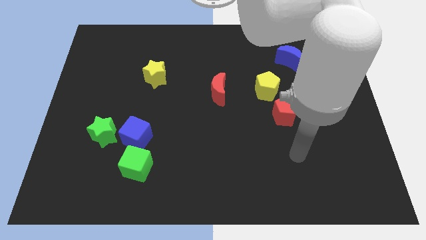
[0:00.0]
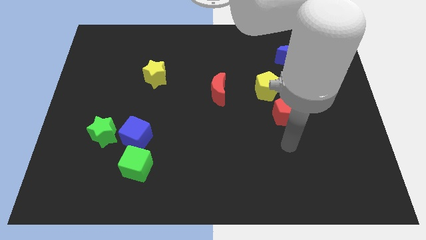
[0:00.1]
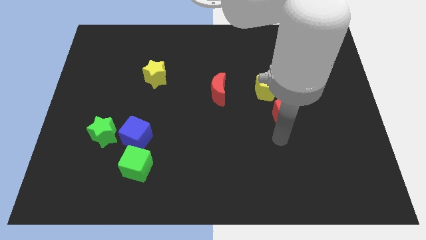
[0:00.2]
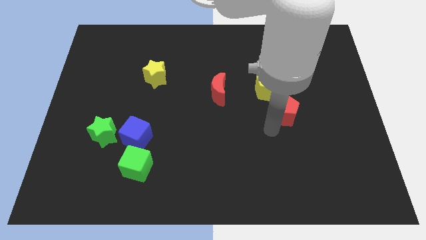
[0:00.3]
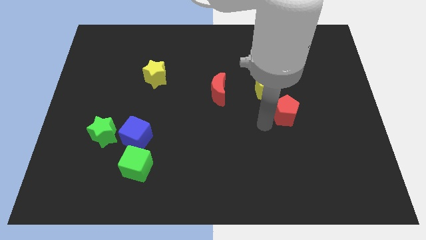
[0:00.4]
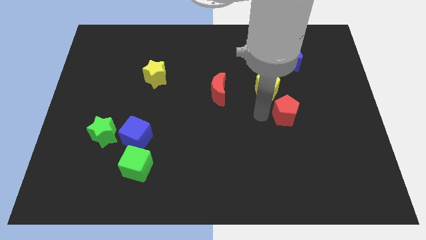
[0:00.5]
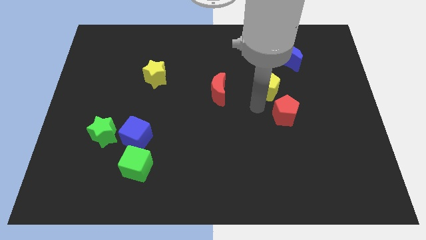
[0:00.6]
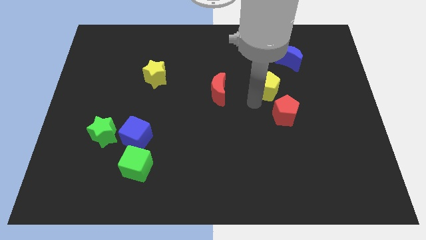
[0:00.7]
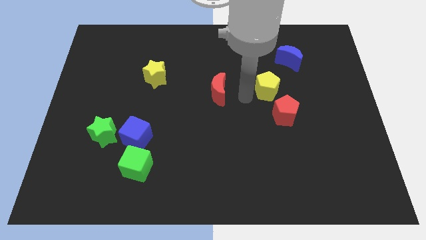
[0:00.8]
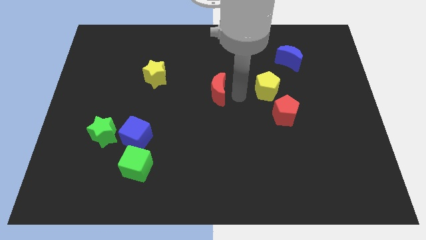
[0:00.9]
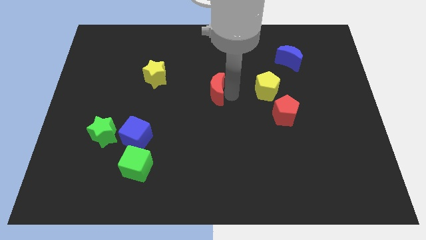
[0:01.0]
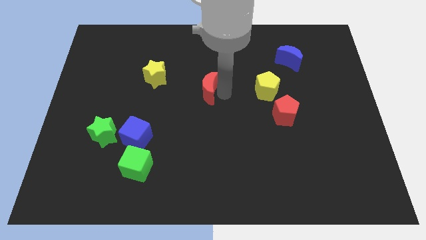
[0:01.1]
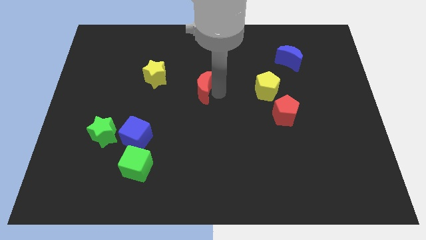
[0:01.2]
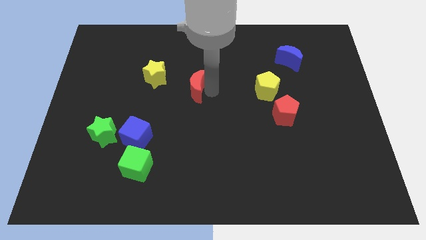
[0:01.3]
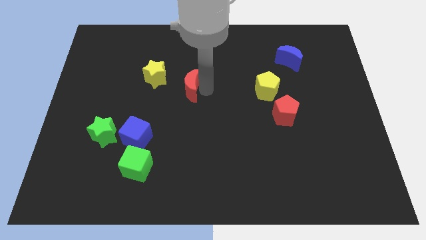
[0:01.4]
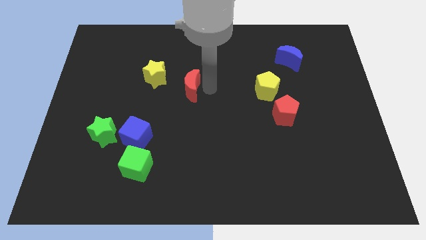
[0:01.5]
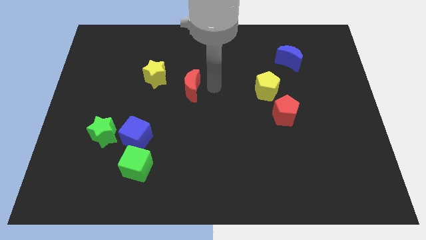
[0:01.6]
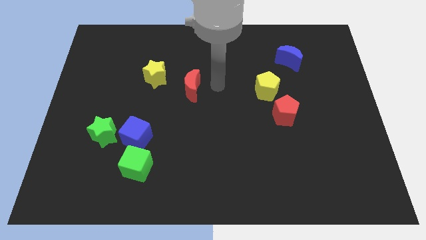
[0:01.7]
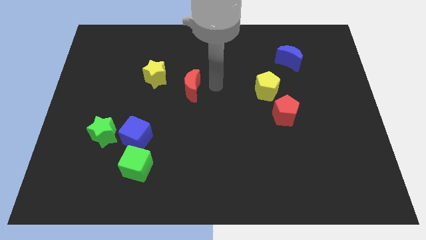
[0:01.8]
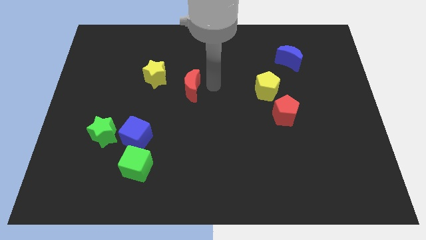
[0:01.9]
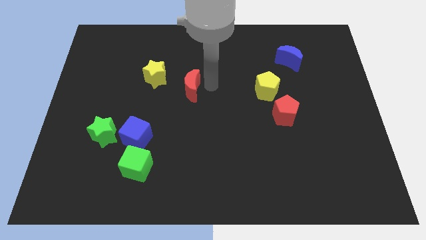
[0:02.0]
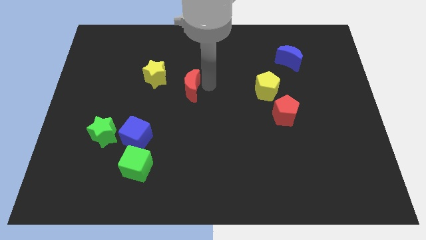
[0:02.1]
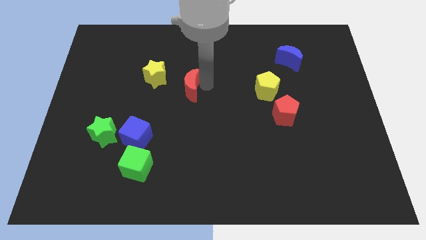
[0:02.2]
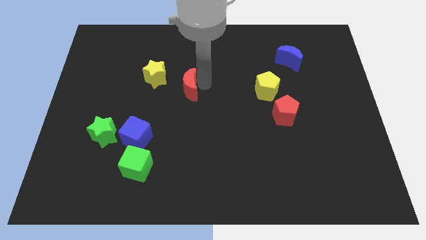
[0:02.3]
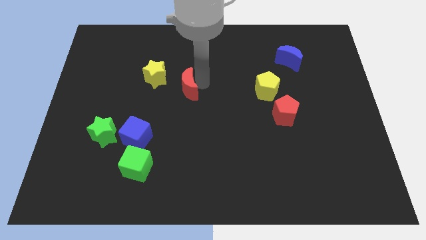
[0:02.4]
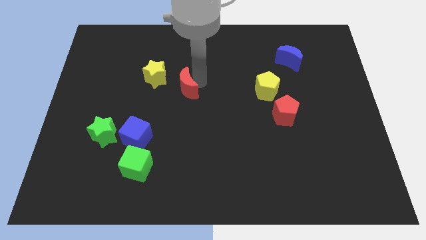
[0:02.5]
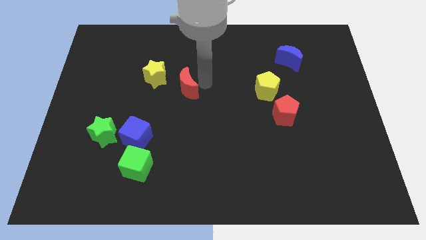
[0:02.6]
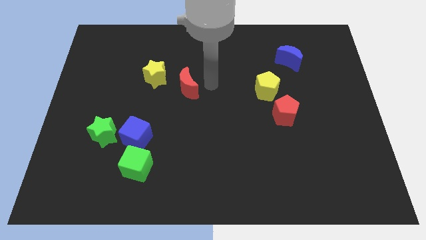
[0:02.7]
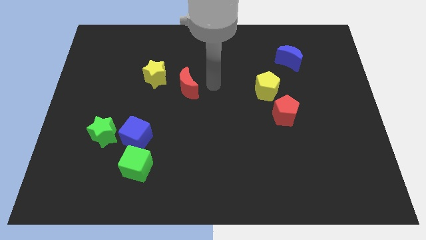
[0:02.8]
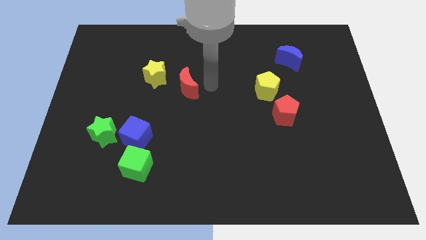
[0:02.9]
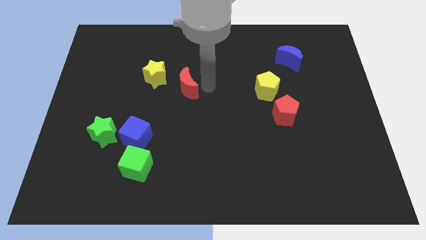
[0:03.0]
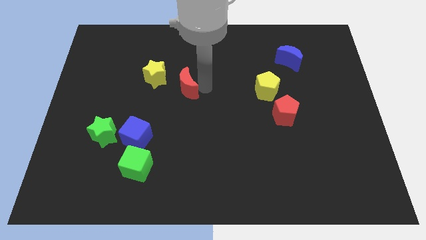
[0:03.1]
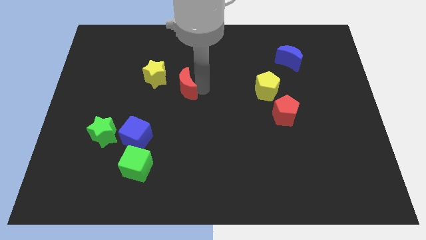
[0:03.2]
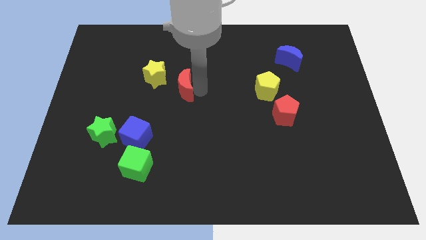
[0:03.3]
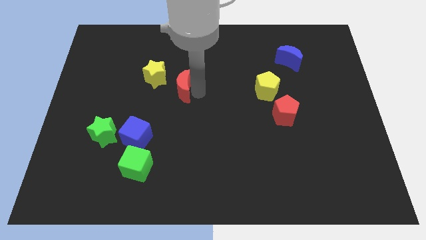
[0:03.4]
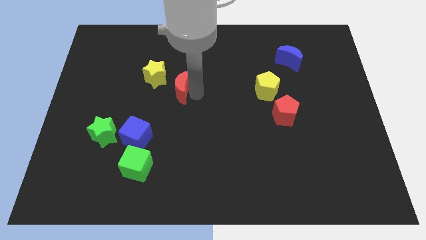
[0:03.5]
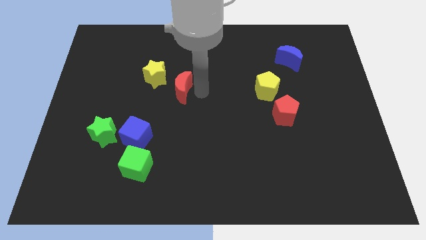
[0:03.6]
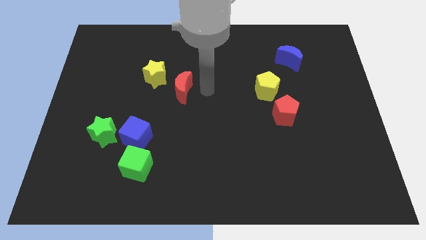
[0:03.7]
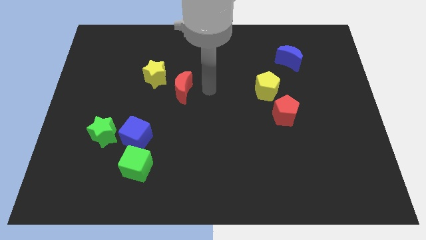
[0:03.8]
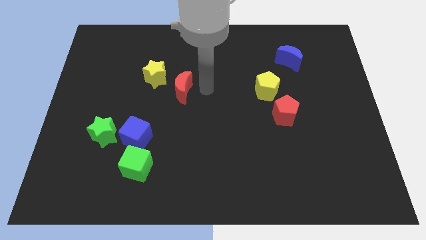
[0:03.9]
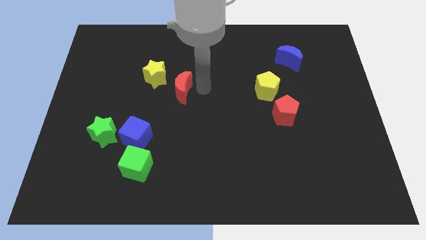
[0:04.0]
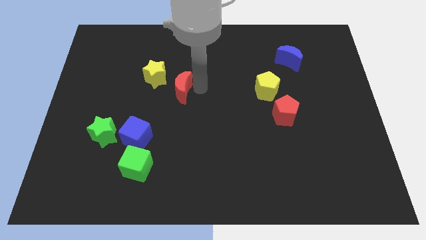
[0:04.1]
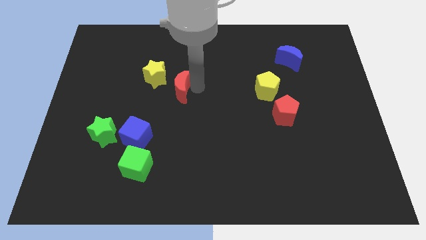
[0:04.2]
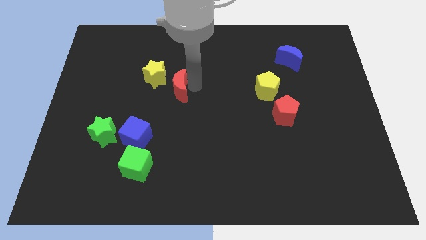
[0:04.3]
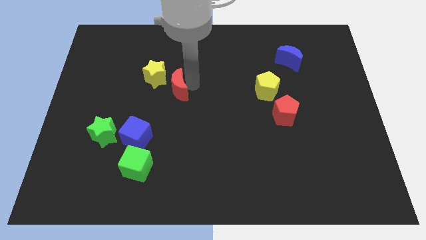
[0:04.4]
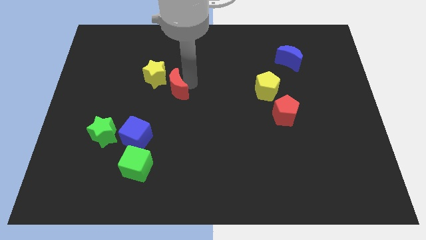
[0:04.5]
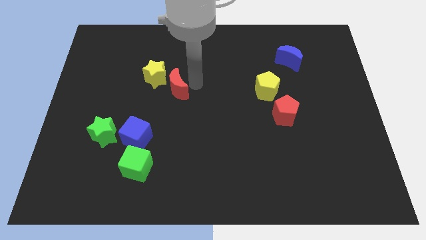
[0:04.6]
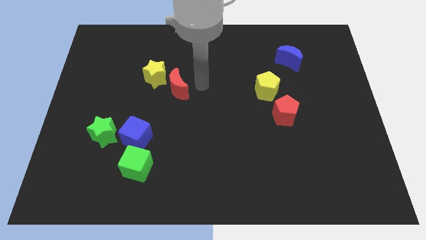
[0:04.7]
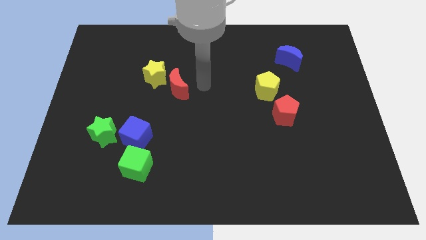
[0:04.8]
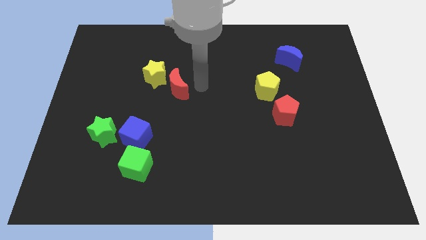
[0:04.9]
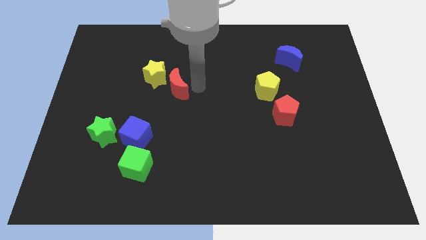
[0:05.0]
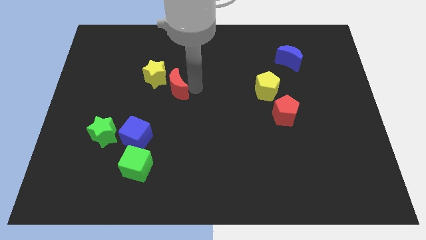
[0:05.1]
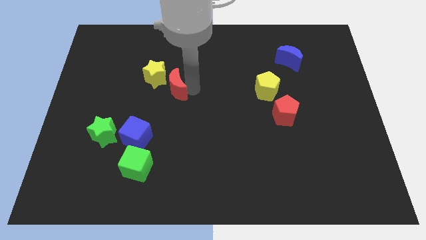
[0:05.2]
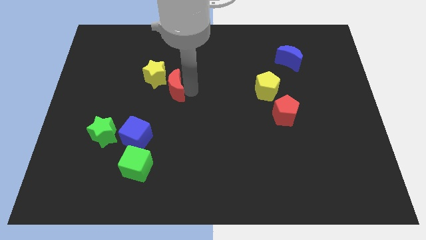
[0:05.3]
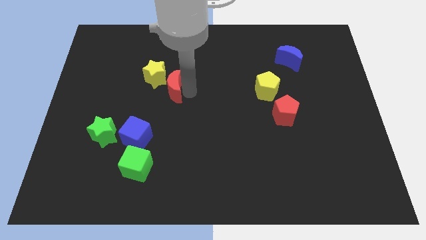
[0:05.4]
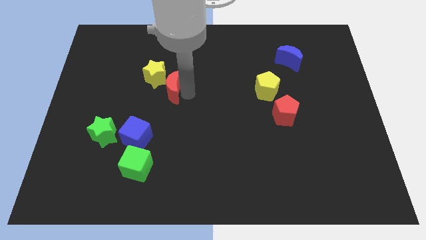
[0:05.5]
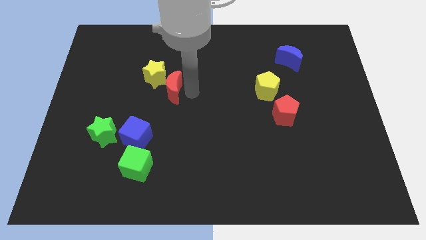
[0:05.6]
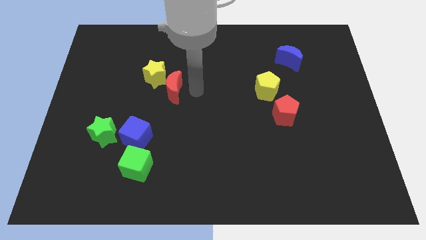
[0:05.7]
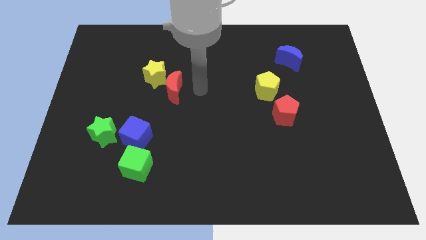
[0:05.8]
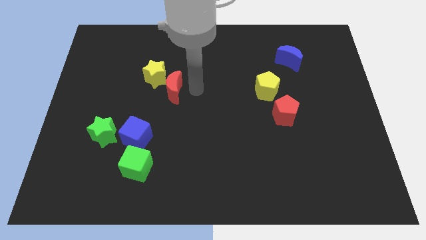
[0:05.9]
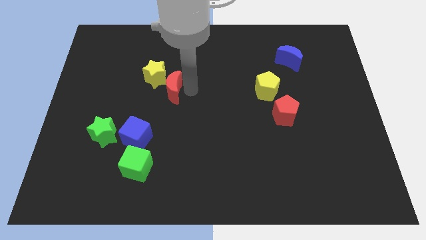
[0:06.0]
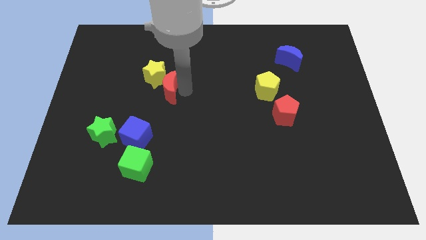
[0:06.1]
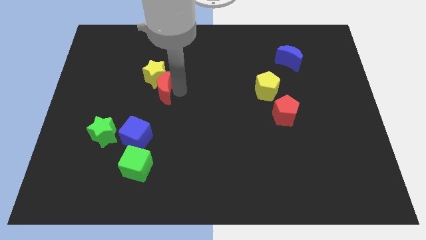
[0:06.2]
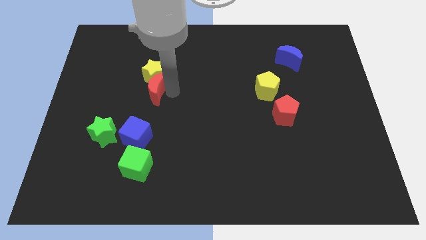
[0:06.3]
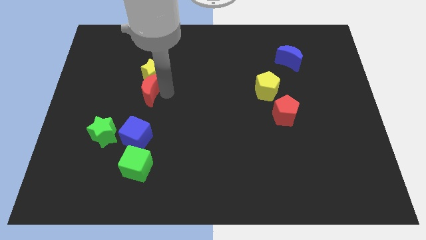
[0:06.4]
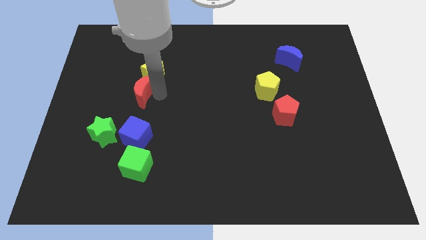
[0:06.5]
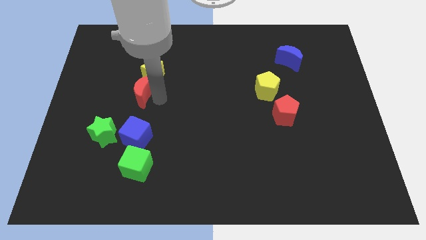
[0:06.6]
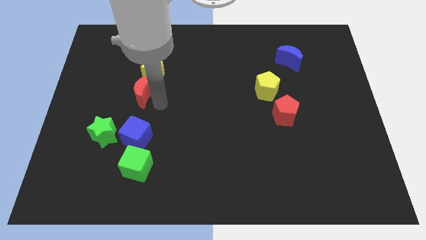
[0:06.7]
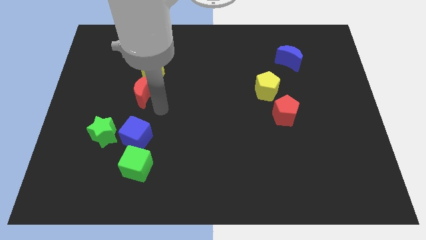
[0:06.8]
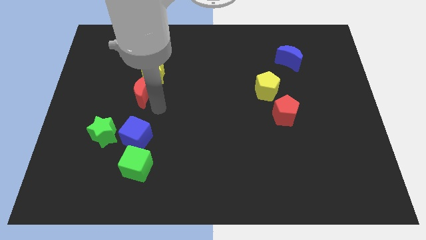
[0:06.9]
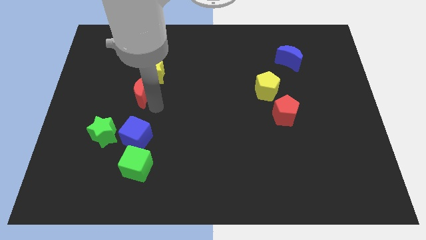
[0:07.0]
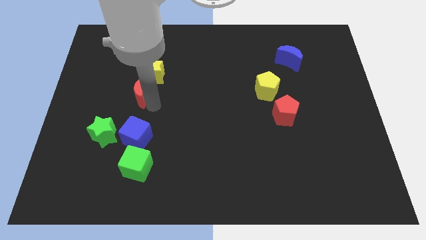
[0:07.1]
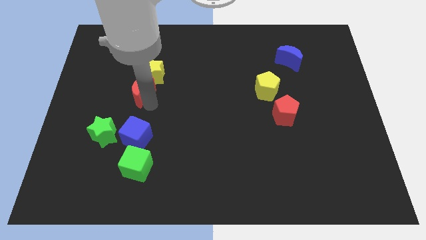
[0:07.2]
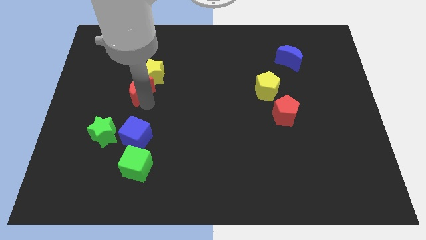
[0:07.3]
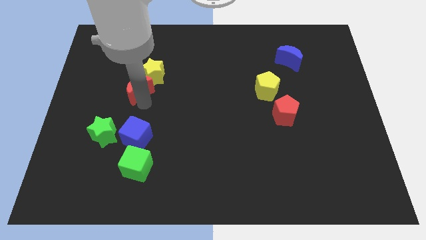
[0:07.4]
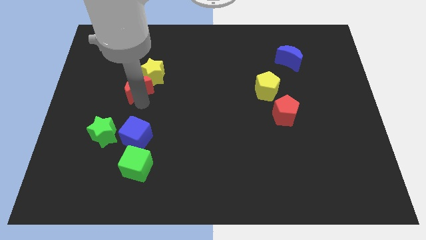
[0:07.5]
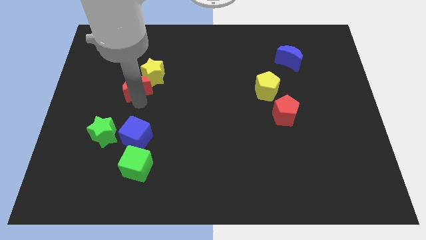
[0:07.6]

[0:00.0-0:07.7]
put the red moon to the left side of the yellow star
